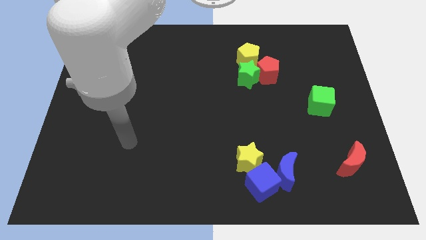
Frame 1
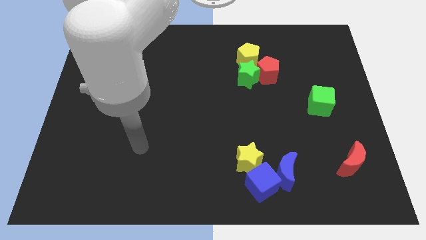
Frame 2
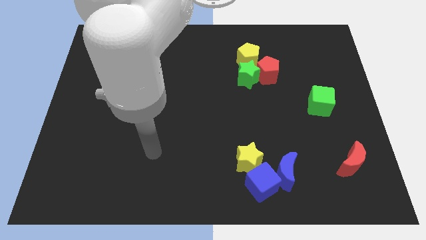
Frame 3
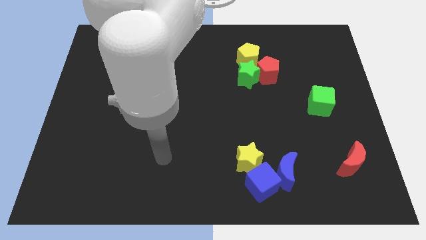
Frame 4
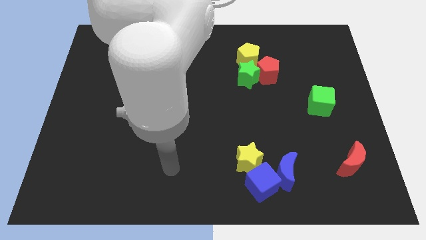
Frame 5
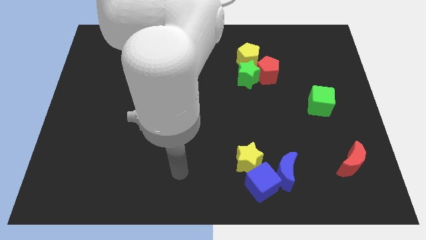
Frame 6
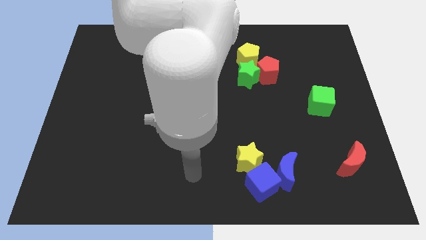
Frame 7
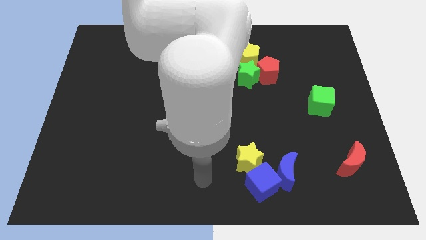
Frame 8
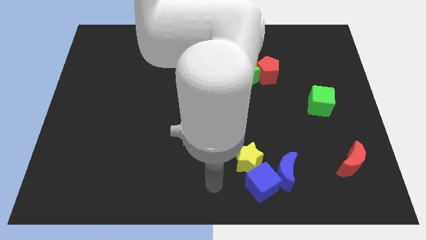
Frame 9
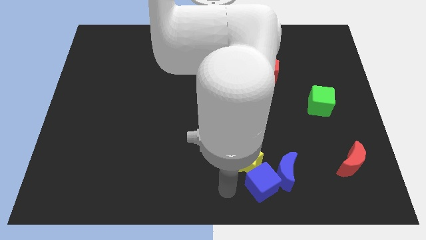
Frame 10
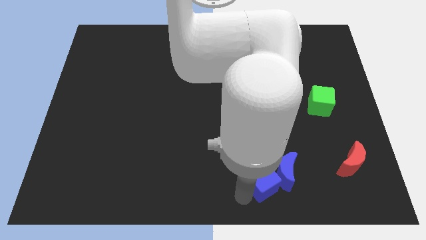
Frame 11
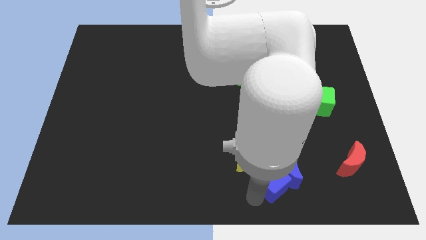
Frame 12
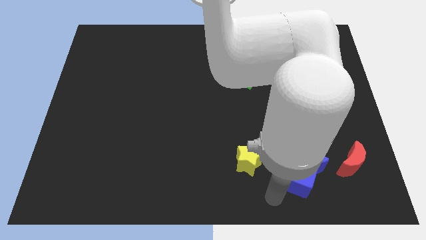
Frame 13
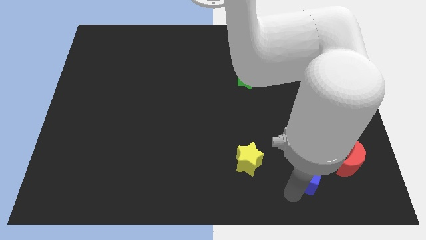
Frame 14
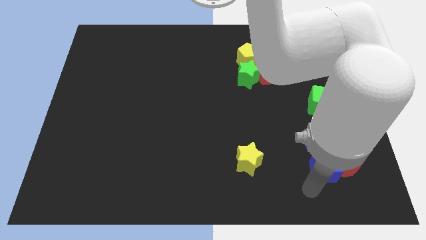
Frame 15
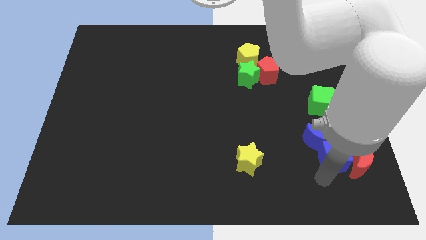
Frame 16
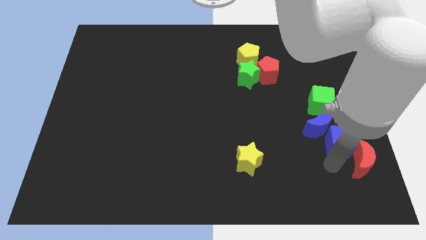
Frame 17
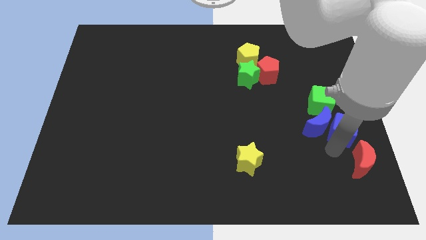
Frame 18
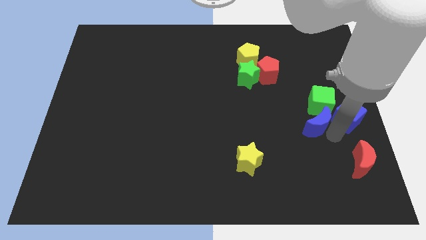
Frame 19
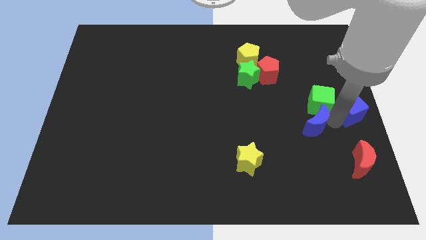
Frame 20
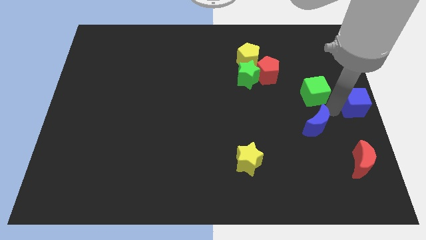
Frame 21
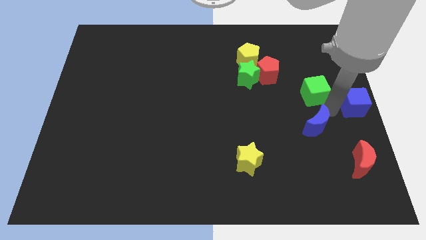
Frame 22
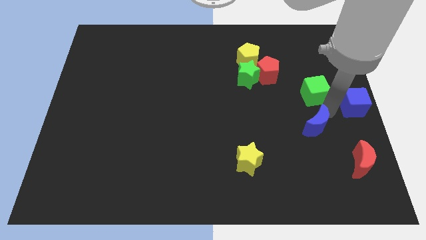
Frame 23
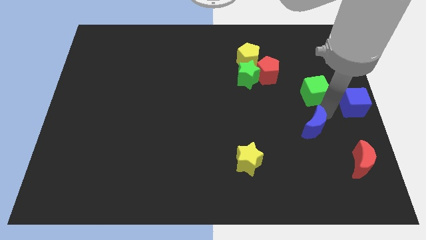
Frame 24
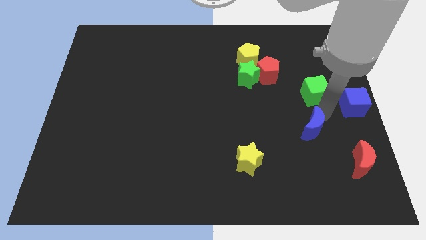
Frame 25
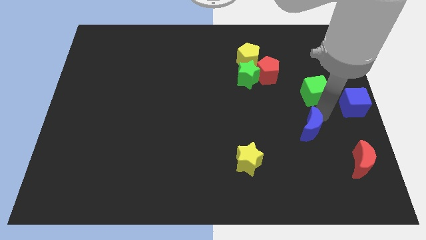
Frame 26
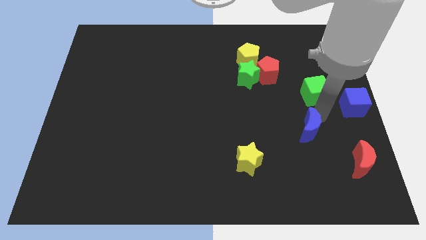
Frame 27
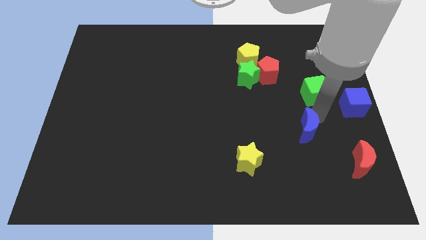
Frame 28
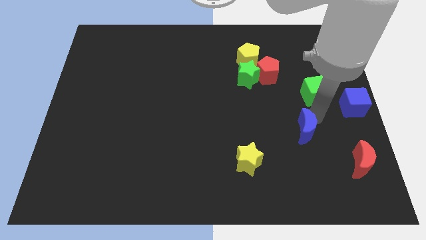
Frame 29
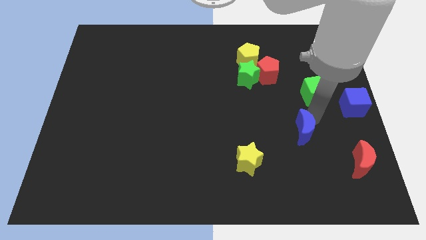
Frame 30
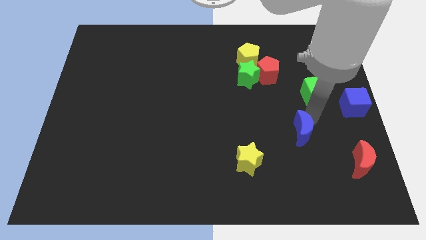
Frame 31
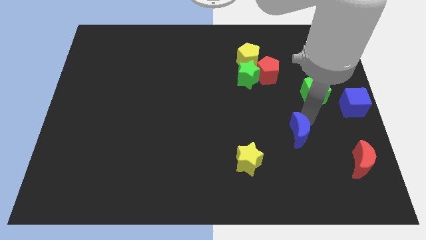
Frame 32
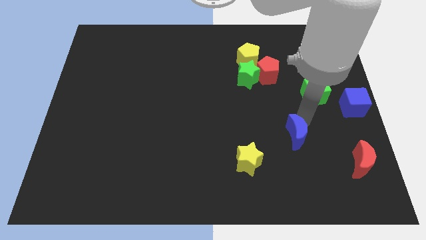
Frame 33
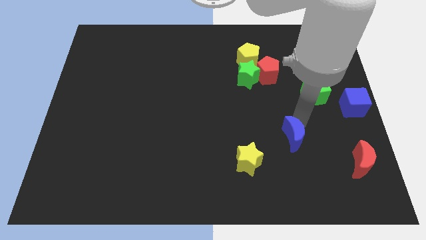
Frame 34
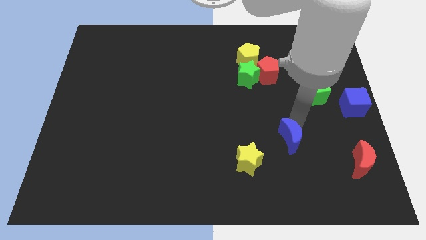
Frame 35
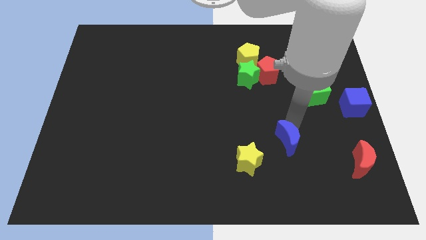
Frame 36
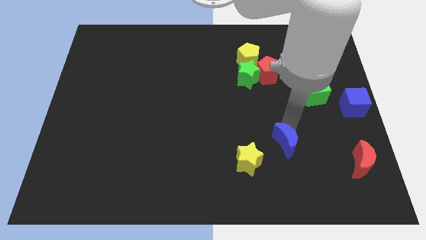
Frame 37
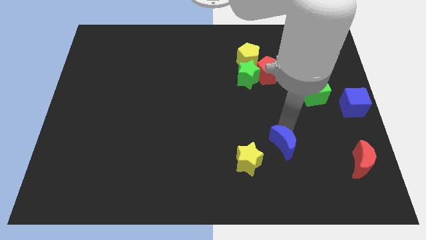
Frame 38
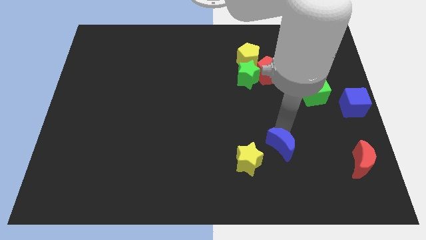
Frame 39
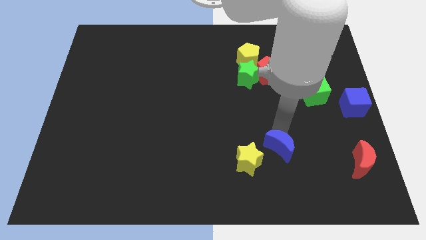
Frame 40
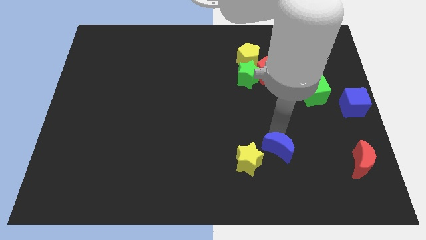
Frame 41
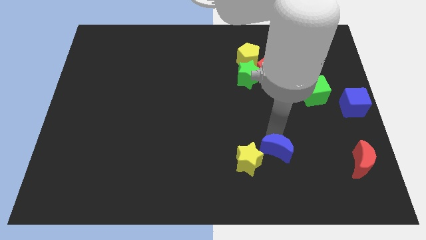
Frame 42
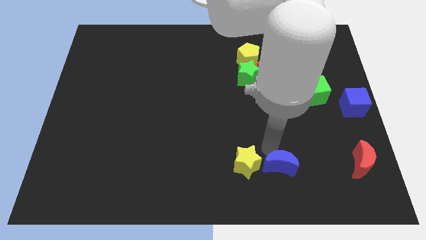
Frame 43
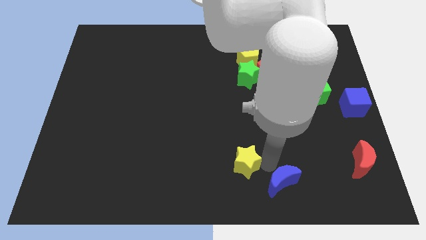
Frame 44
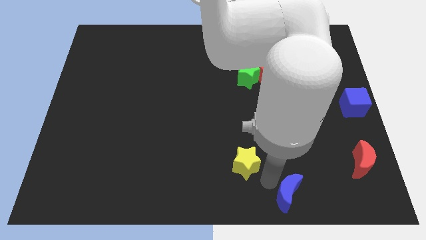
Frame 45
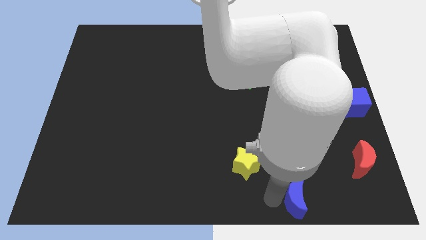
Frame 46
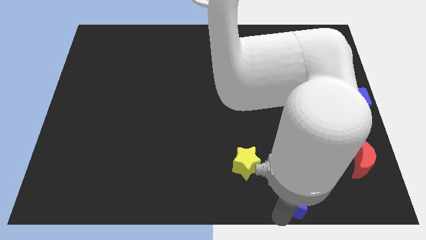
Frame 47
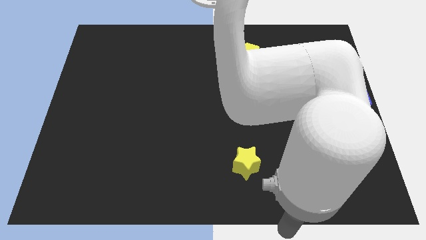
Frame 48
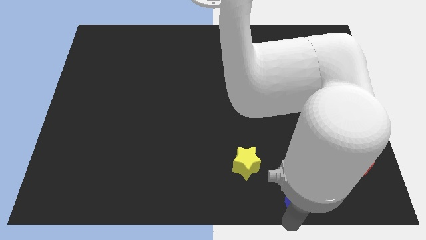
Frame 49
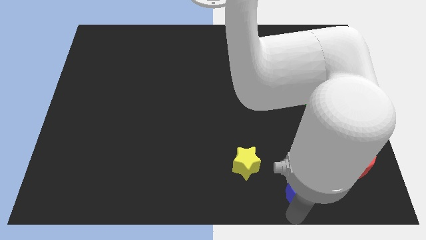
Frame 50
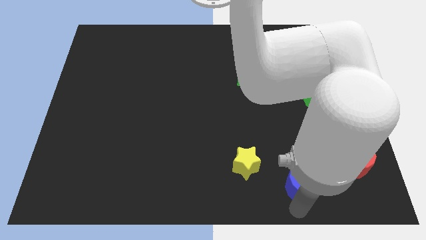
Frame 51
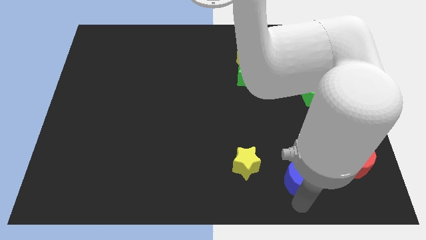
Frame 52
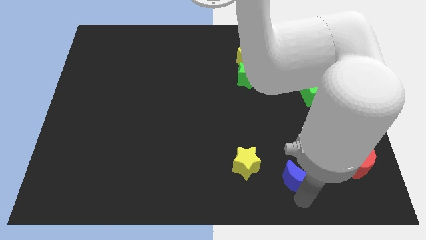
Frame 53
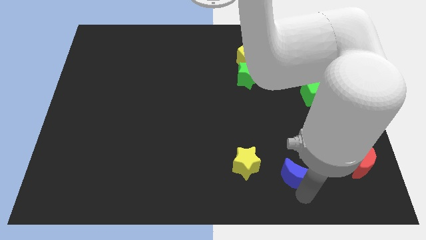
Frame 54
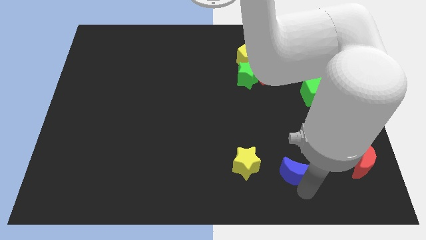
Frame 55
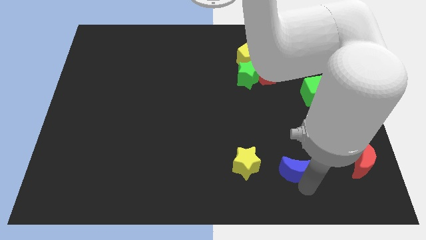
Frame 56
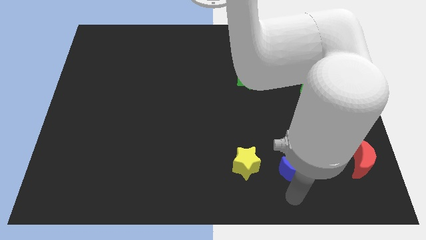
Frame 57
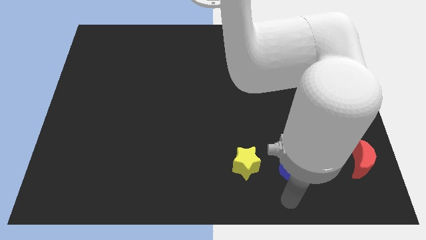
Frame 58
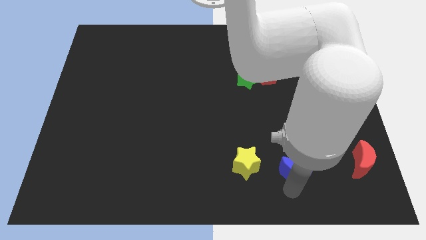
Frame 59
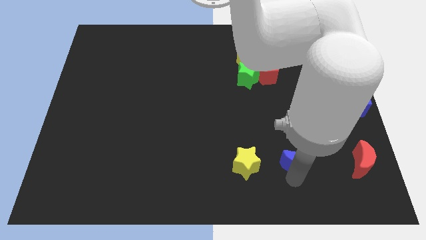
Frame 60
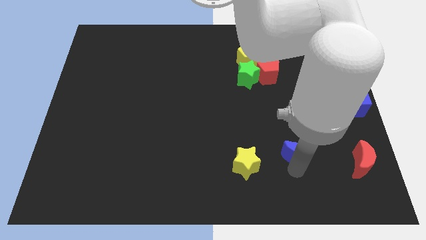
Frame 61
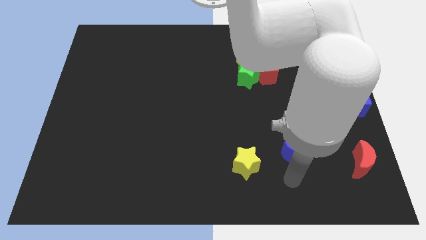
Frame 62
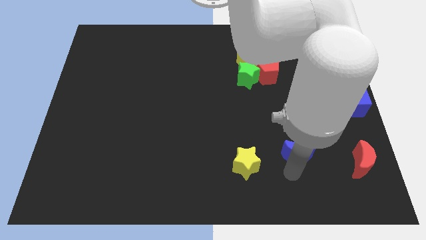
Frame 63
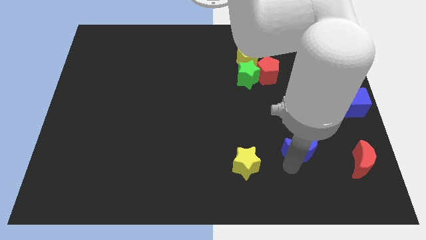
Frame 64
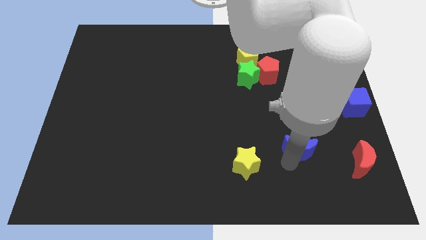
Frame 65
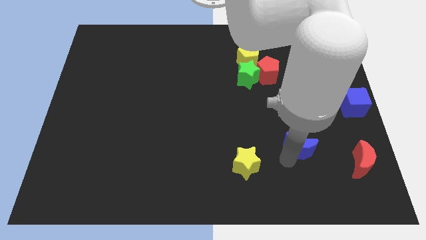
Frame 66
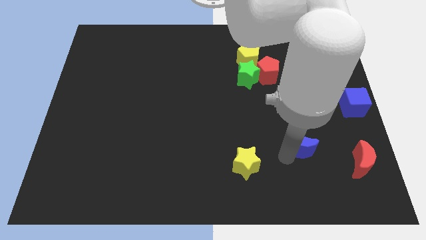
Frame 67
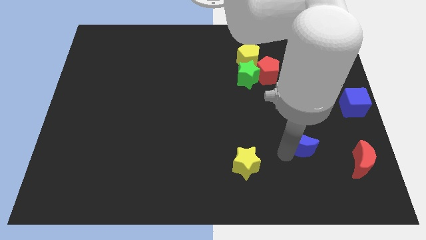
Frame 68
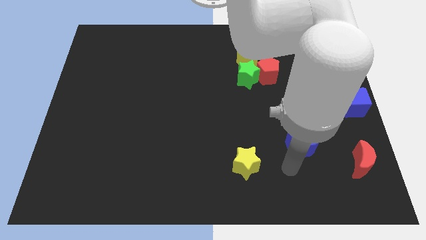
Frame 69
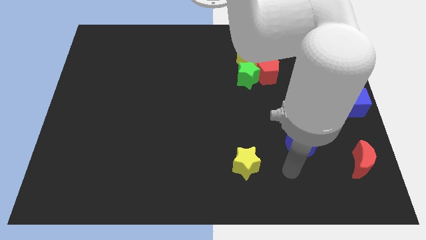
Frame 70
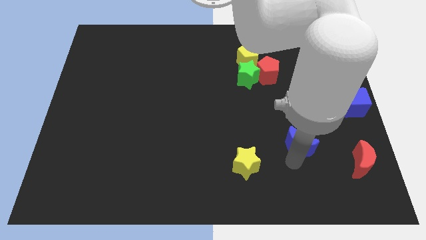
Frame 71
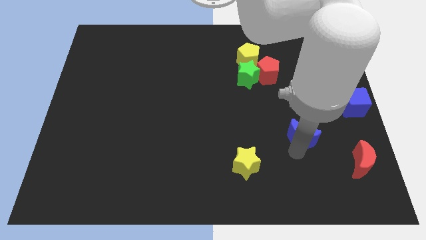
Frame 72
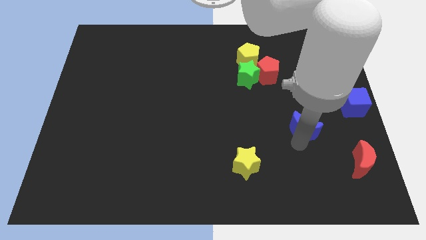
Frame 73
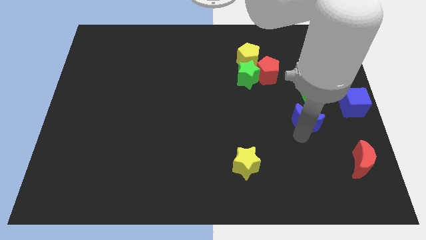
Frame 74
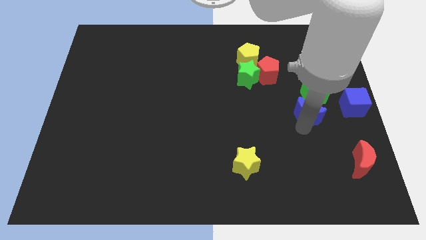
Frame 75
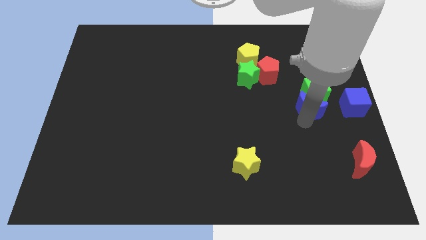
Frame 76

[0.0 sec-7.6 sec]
push the blue moon to the green cube
